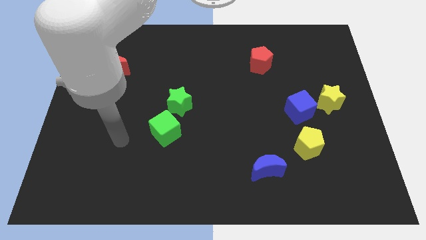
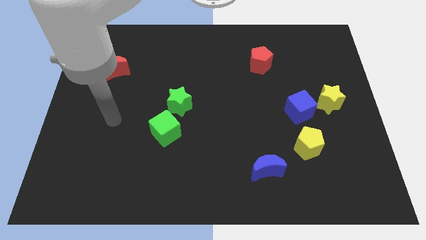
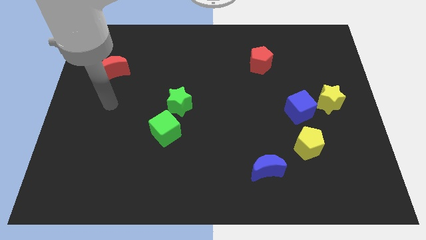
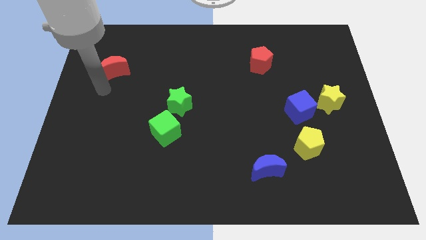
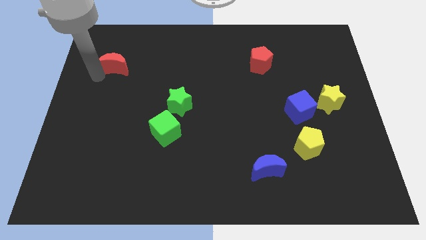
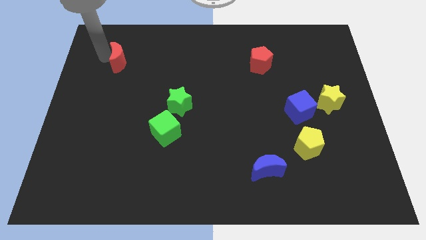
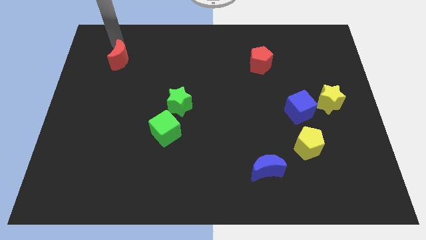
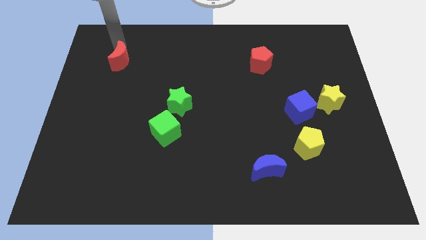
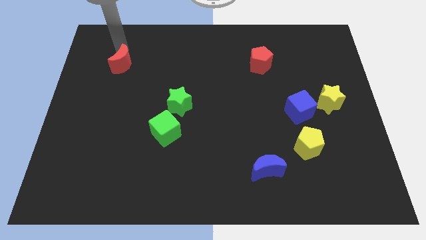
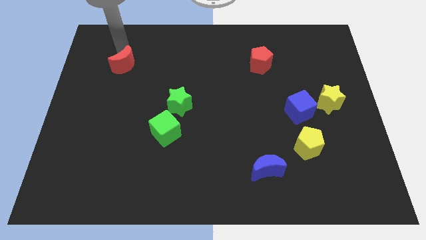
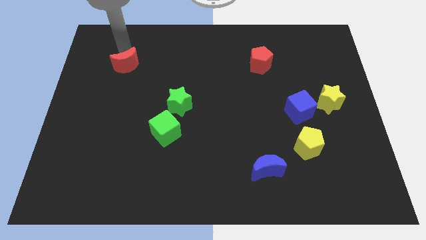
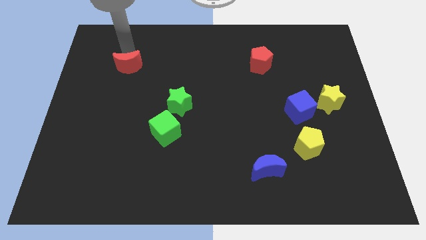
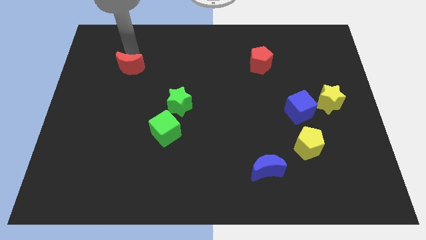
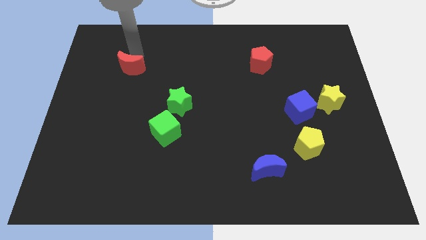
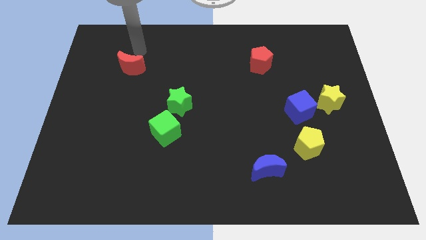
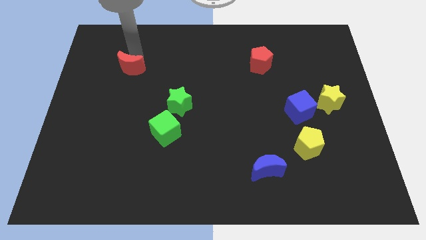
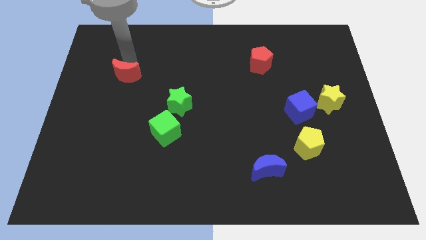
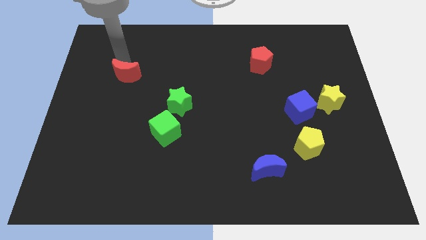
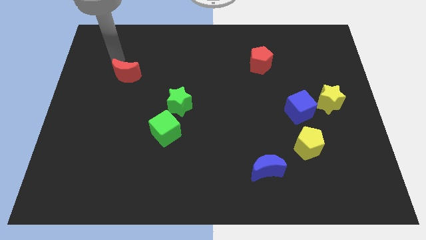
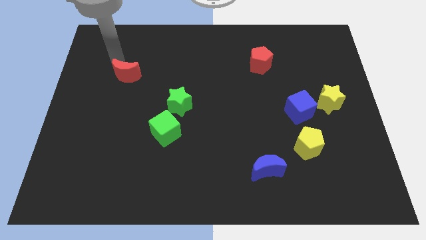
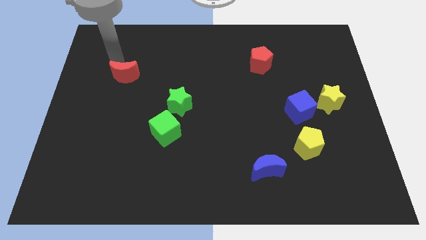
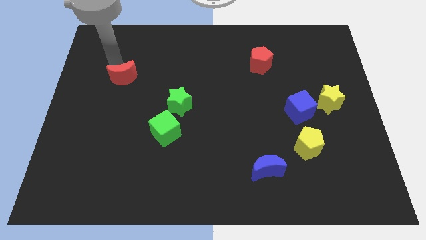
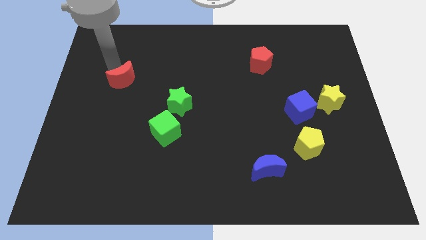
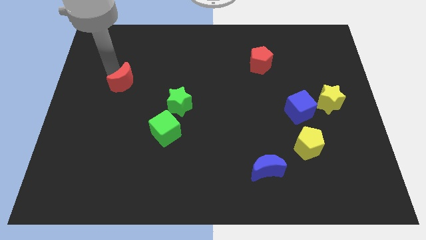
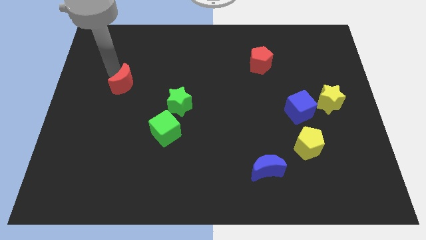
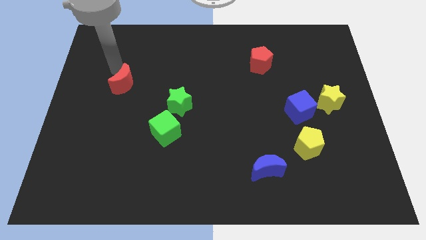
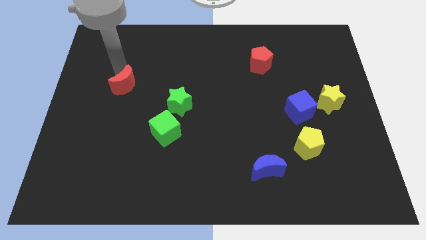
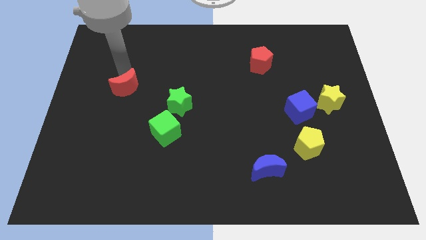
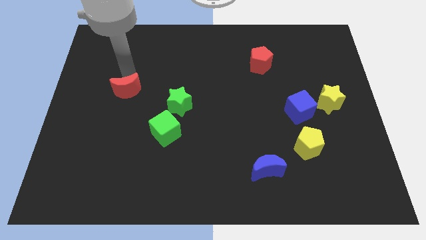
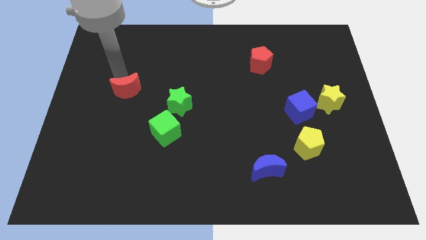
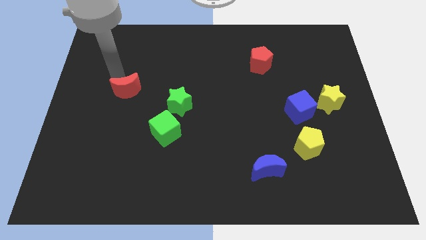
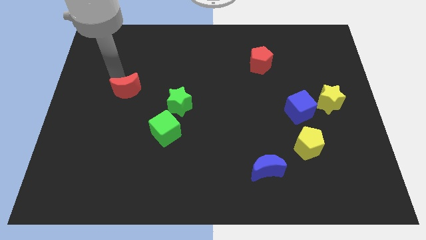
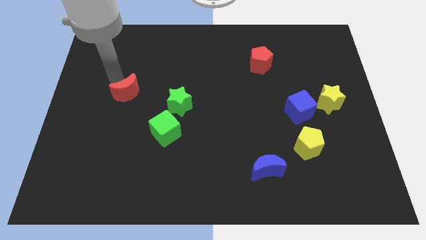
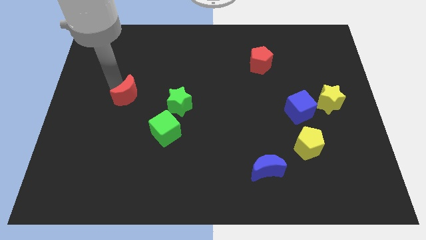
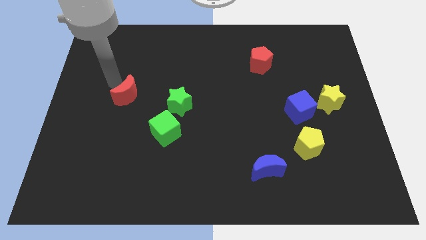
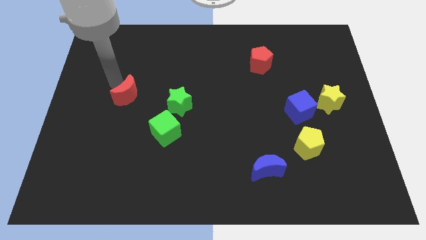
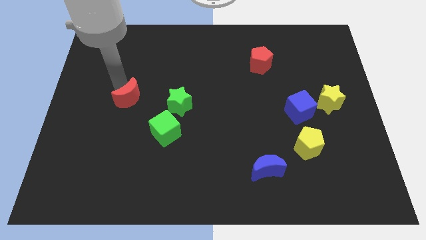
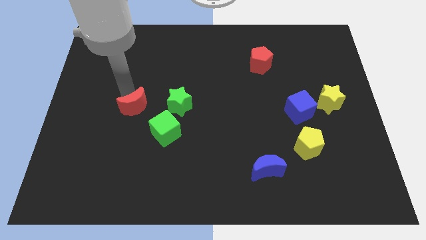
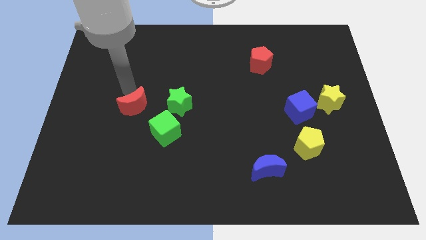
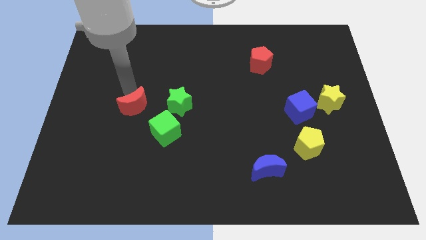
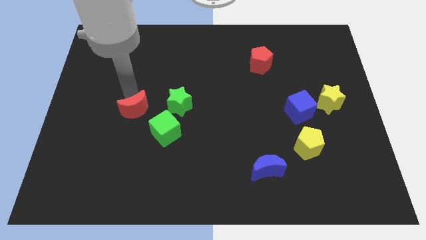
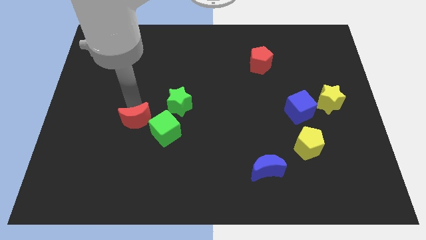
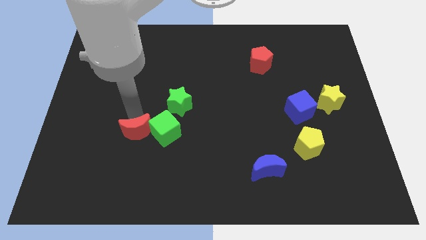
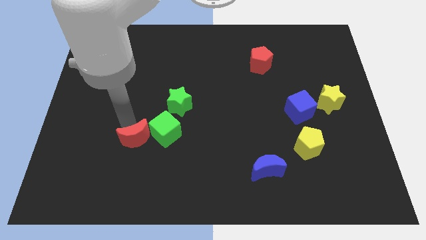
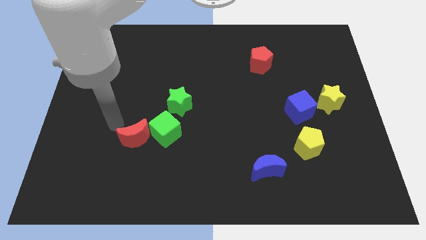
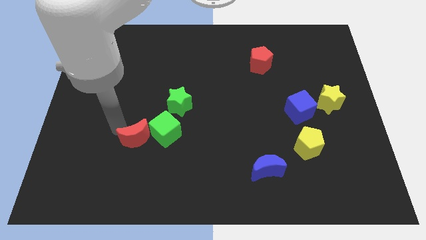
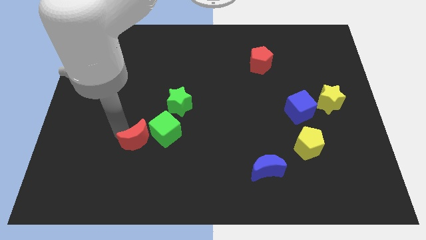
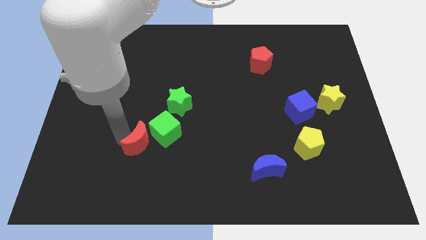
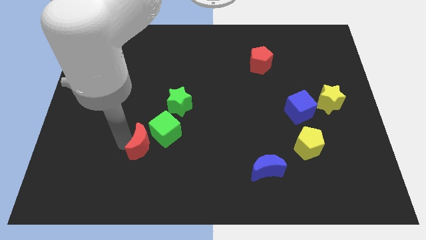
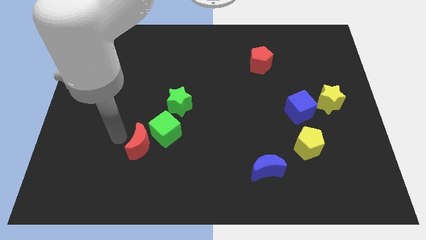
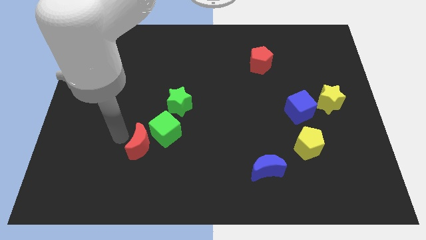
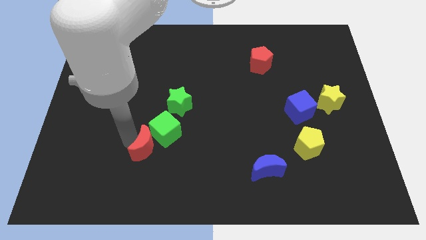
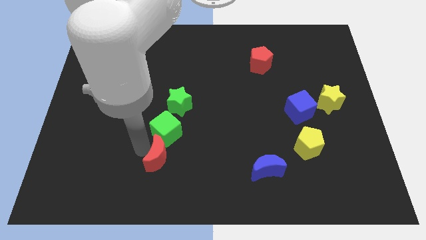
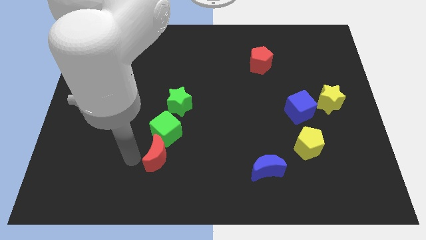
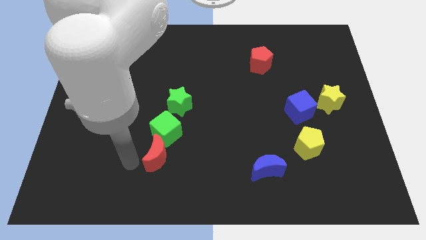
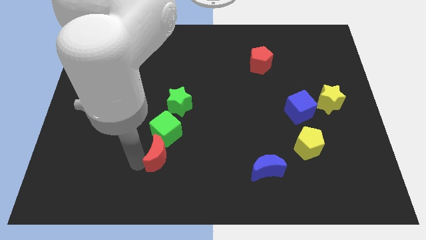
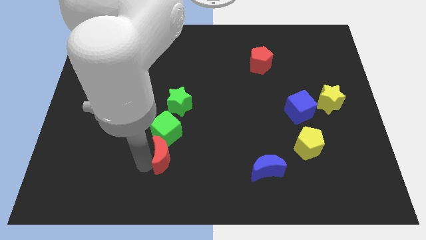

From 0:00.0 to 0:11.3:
slide the red moon diagonally down and to the right of the green cube

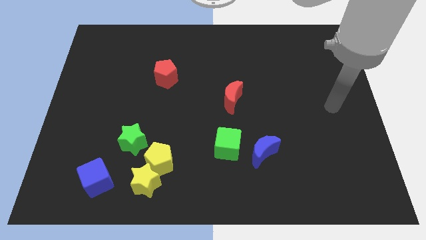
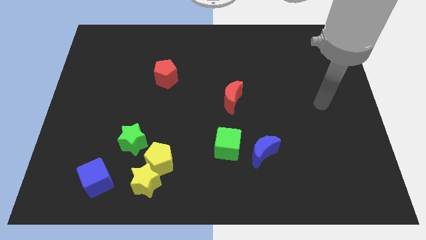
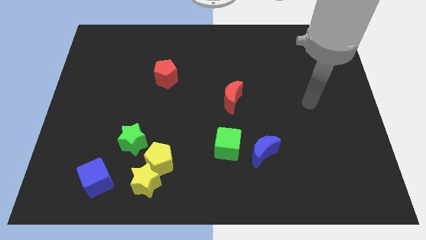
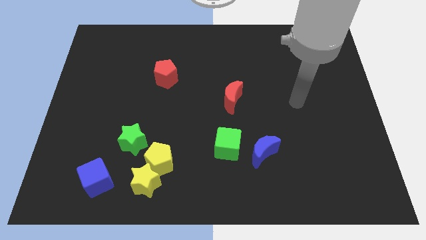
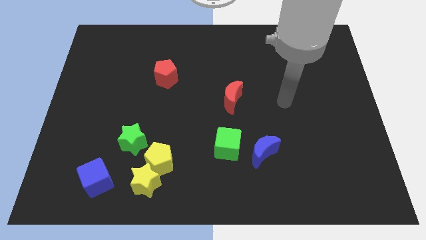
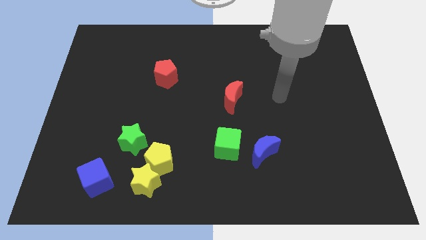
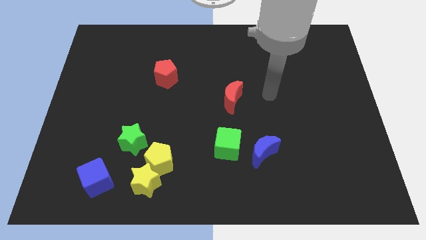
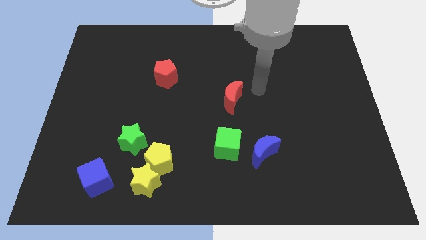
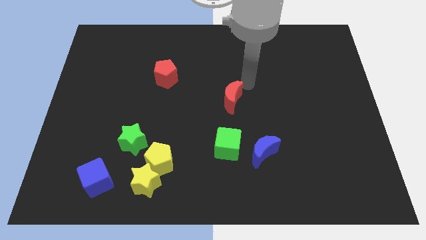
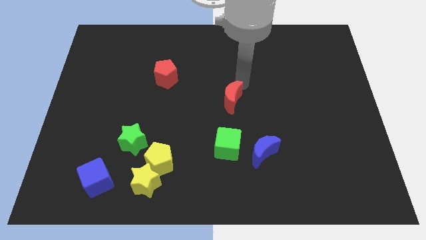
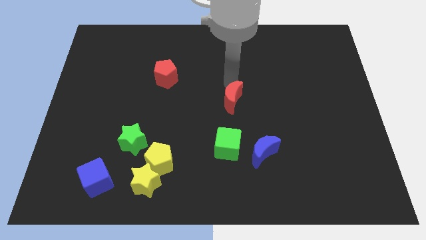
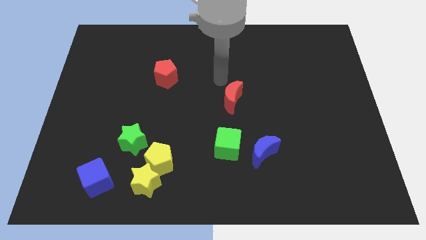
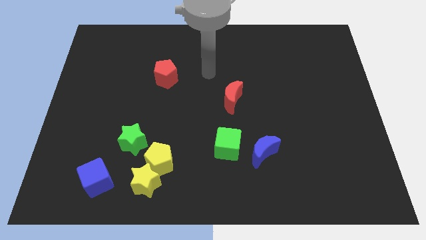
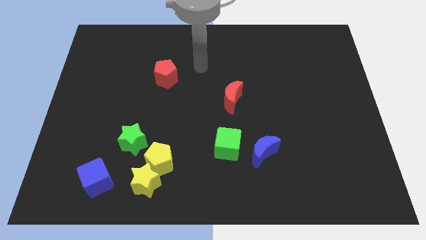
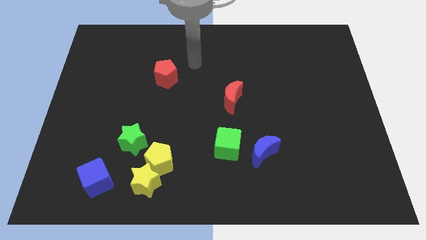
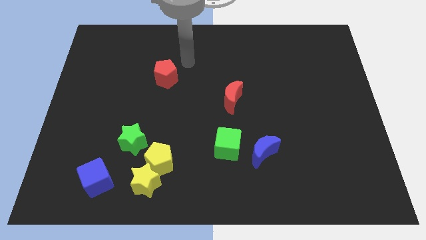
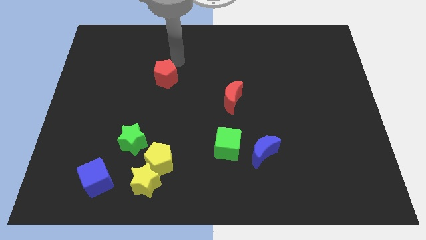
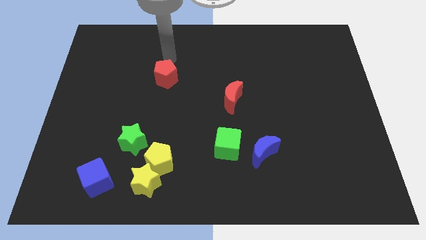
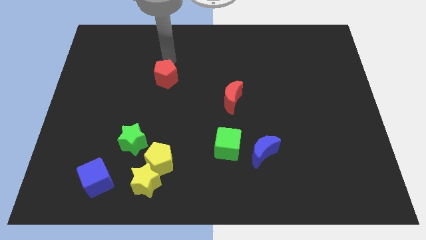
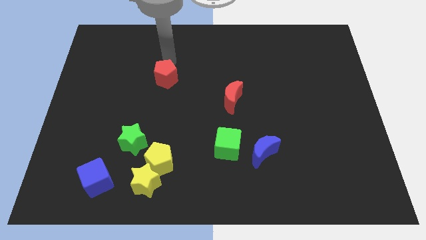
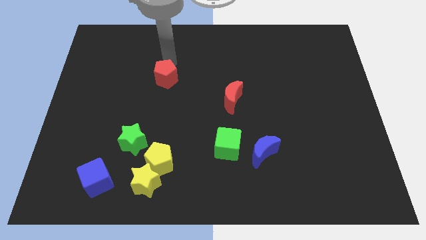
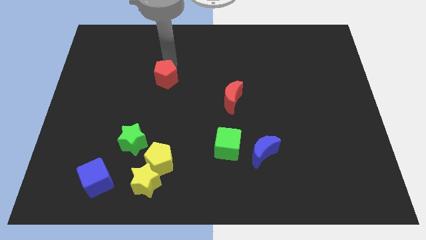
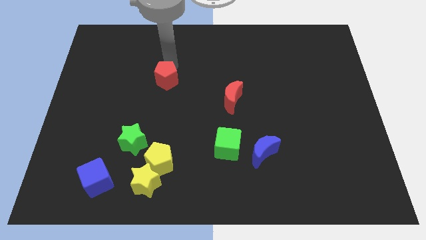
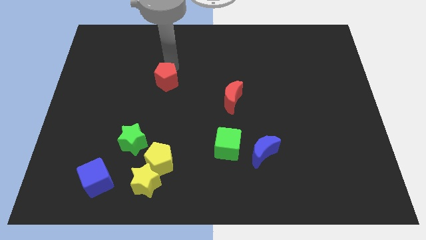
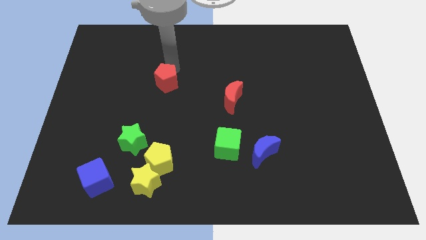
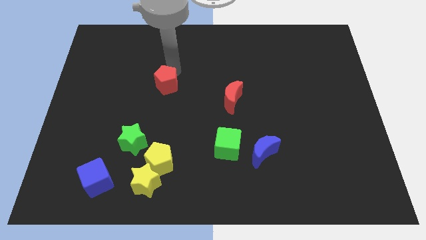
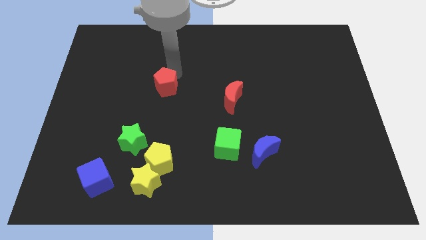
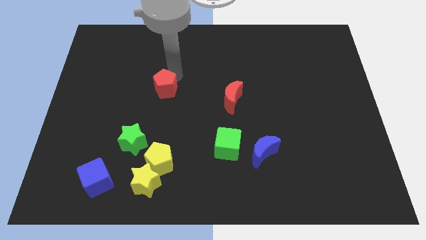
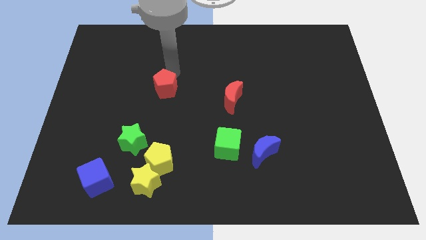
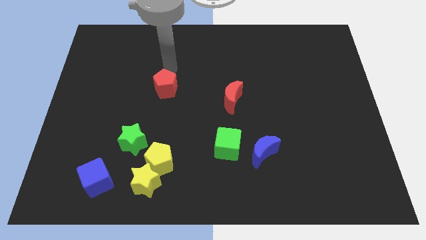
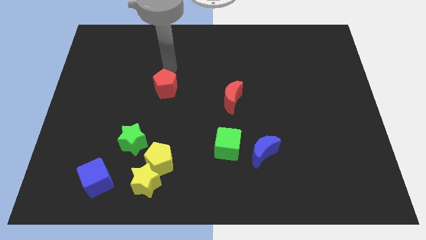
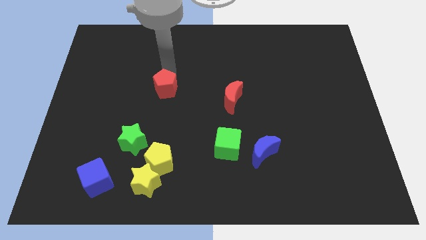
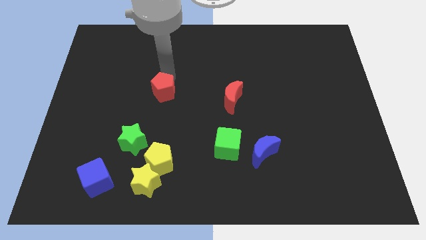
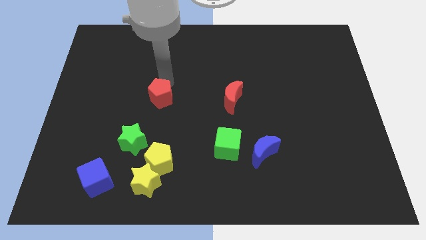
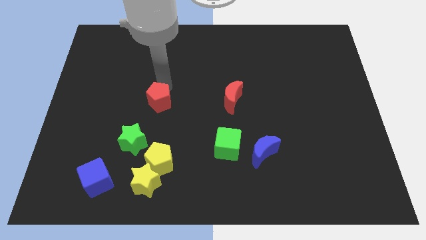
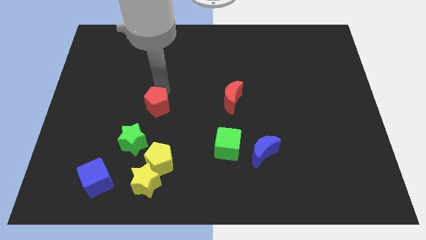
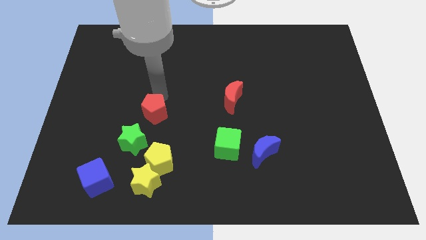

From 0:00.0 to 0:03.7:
put the red pentagon to the top right side of the green star
